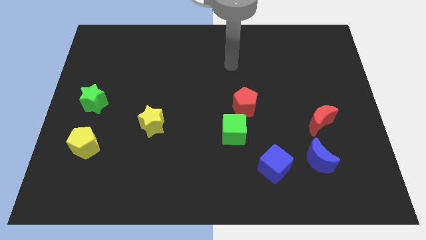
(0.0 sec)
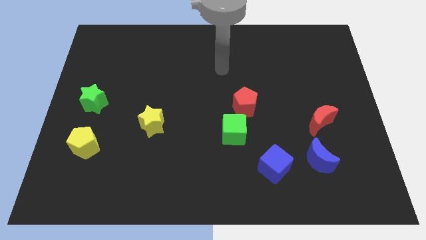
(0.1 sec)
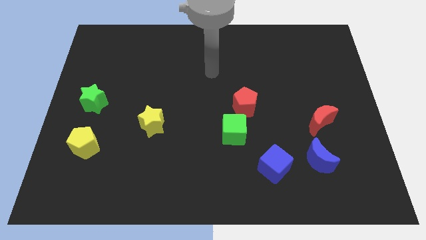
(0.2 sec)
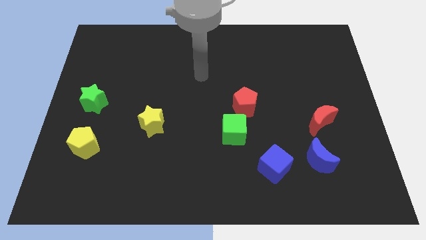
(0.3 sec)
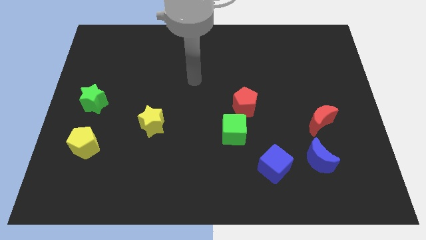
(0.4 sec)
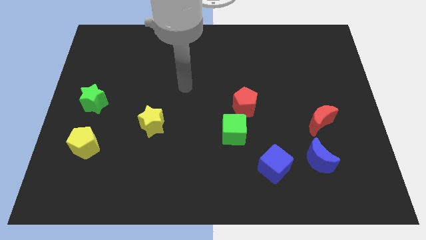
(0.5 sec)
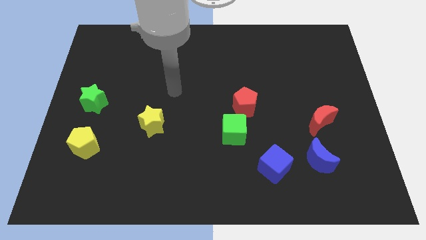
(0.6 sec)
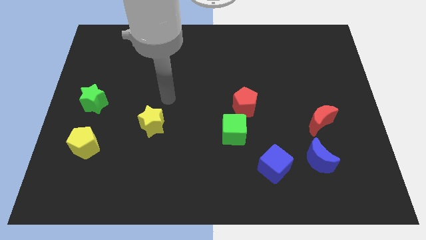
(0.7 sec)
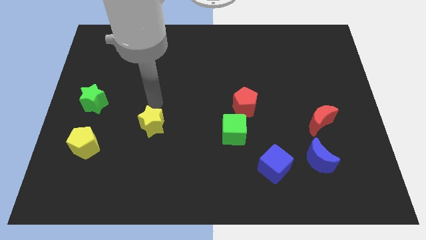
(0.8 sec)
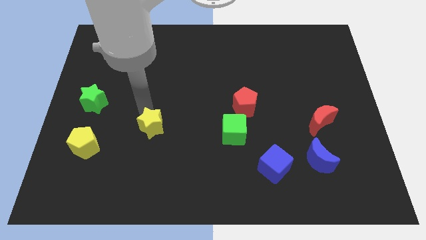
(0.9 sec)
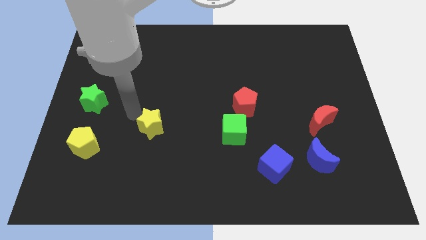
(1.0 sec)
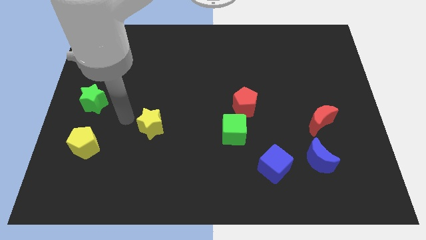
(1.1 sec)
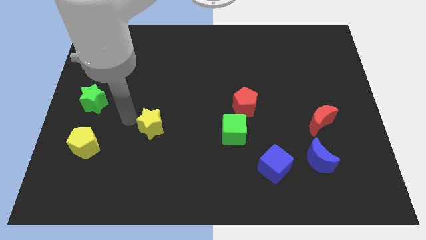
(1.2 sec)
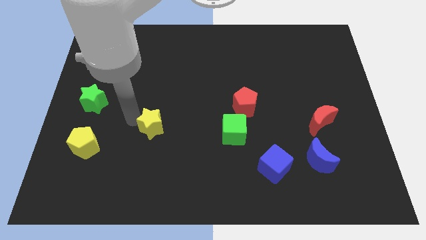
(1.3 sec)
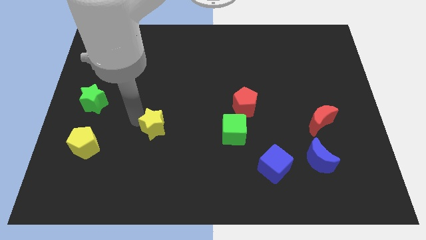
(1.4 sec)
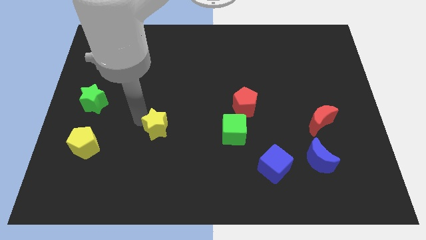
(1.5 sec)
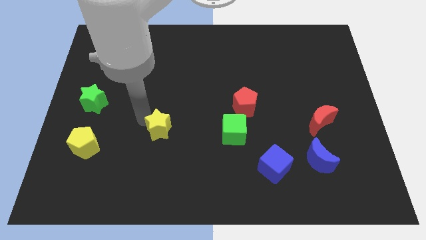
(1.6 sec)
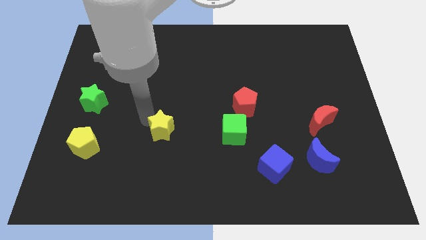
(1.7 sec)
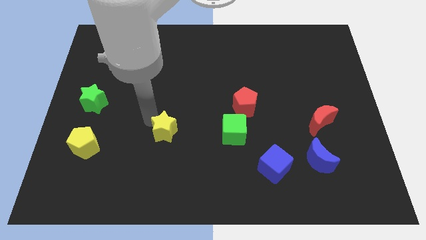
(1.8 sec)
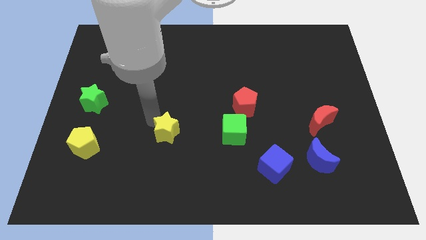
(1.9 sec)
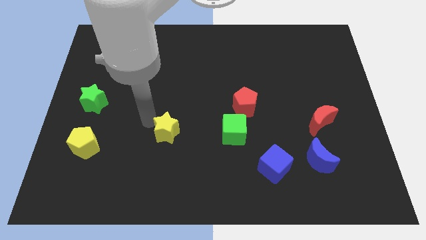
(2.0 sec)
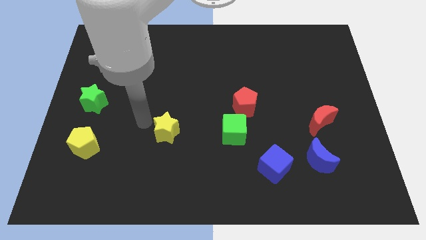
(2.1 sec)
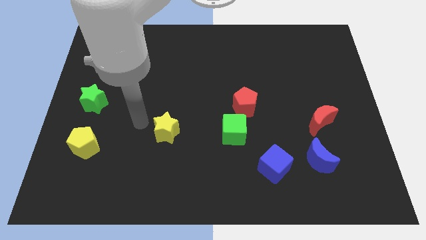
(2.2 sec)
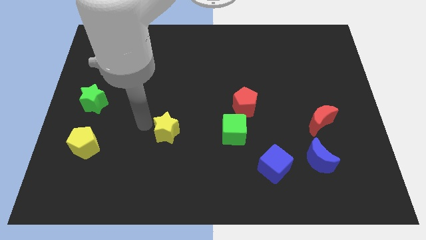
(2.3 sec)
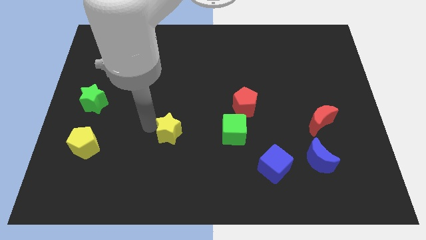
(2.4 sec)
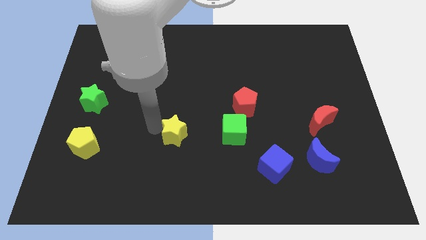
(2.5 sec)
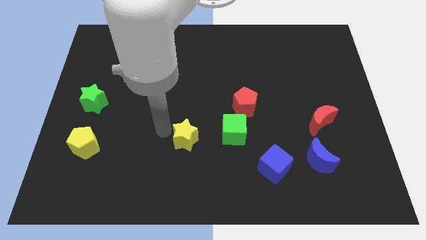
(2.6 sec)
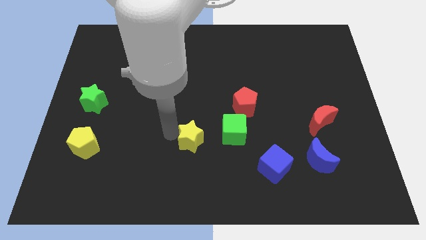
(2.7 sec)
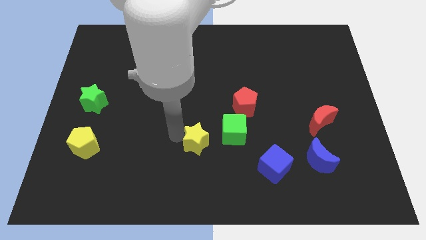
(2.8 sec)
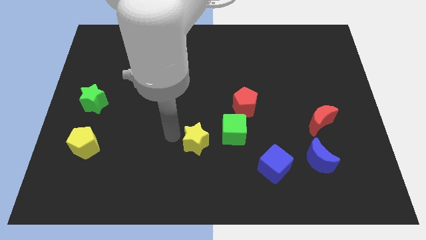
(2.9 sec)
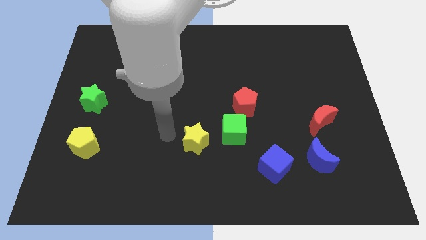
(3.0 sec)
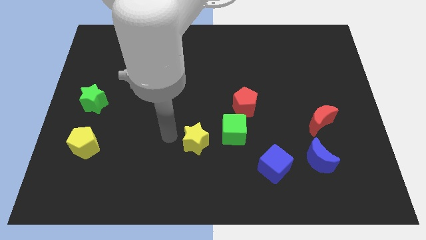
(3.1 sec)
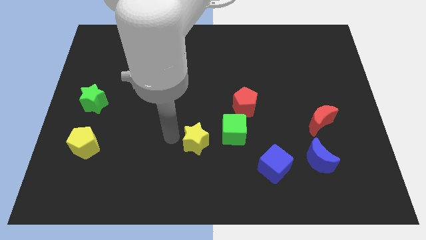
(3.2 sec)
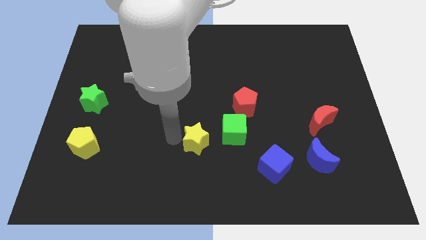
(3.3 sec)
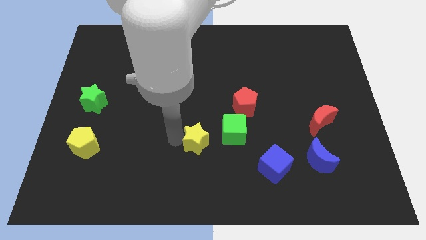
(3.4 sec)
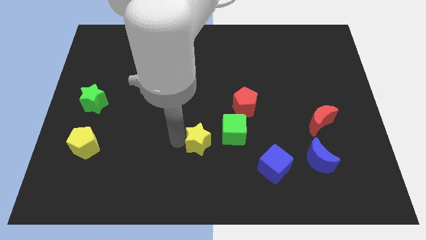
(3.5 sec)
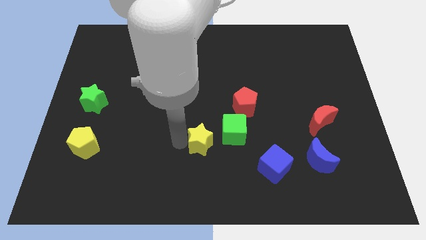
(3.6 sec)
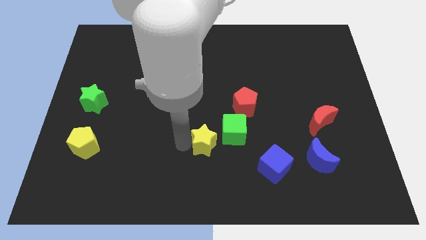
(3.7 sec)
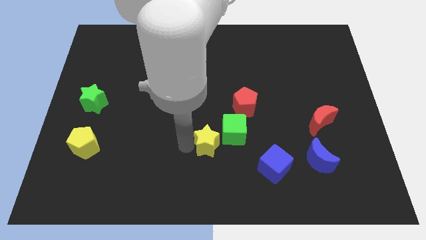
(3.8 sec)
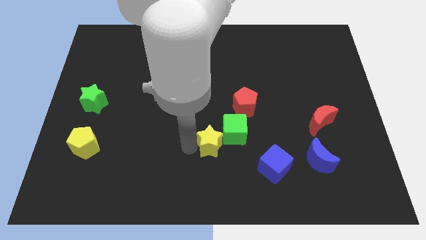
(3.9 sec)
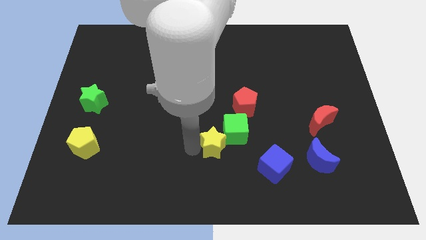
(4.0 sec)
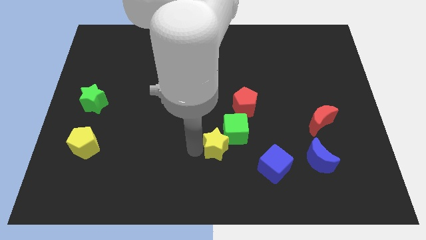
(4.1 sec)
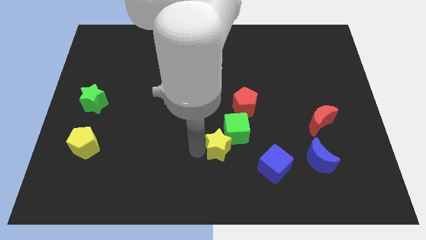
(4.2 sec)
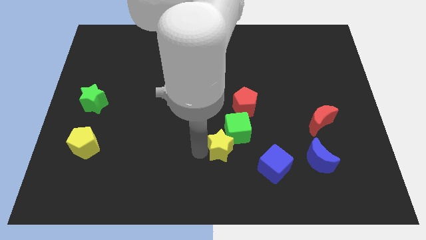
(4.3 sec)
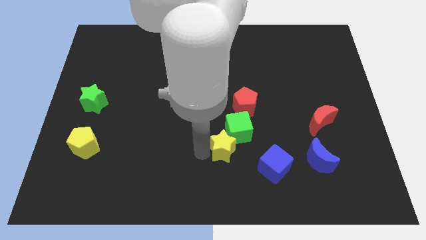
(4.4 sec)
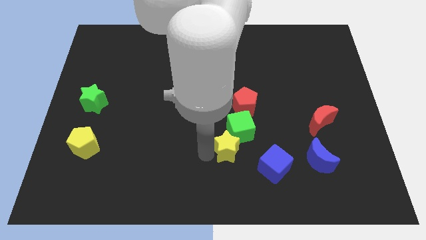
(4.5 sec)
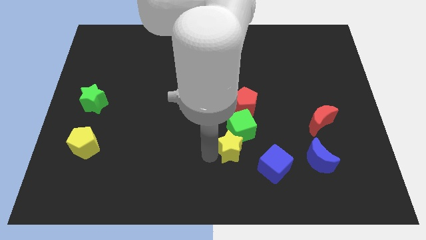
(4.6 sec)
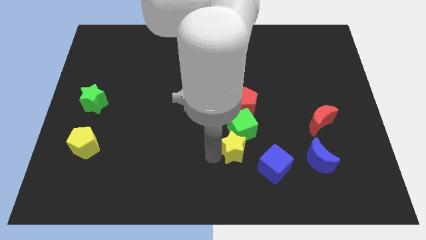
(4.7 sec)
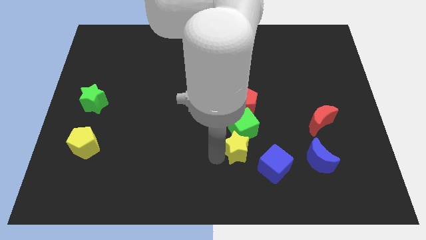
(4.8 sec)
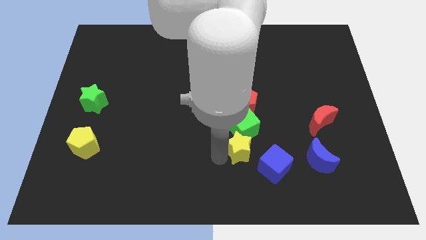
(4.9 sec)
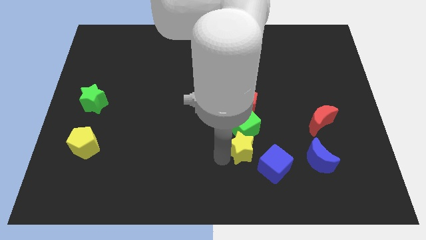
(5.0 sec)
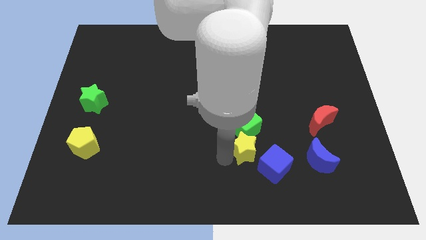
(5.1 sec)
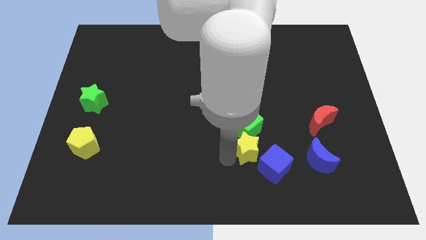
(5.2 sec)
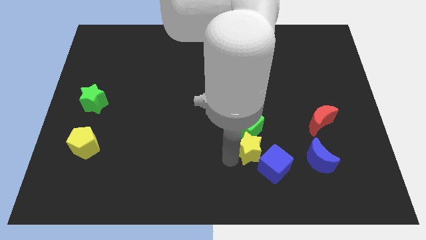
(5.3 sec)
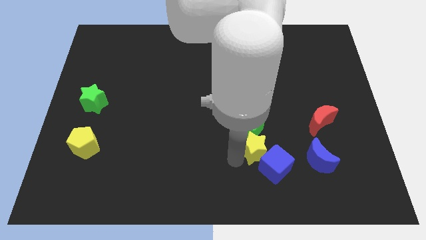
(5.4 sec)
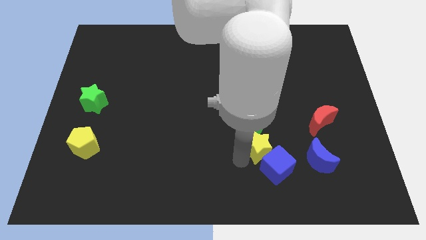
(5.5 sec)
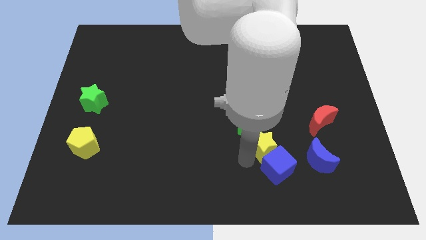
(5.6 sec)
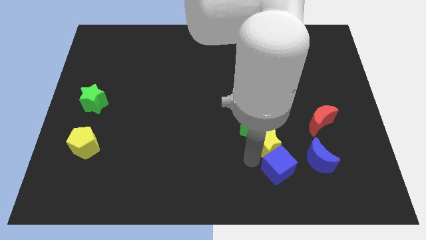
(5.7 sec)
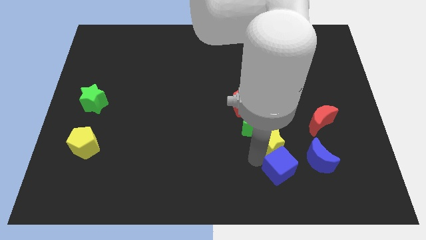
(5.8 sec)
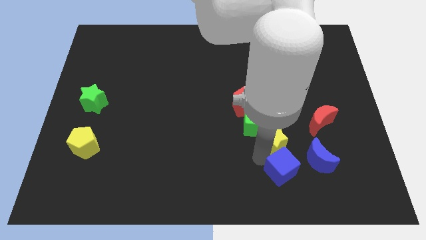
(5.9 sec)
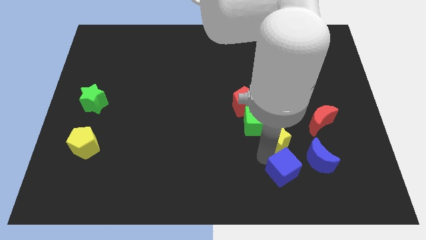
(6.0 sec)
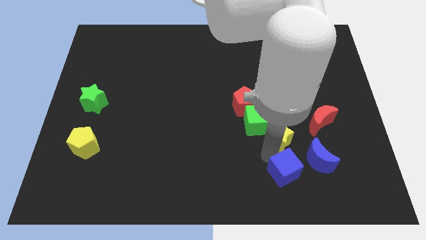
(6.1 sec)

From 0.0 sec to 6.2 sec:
put the yellow star to the right of the green cube
